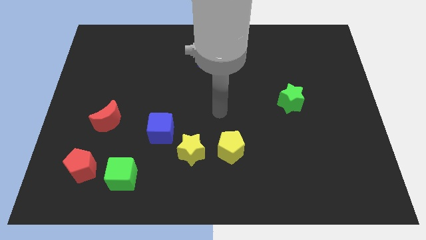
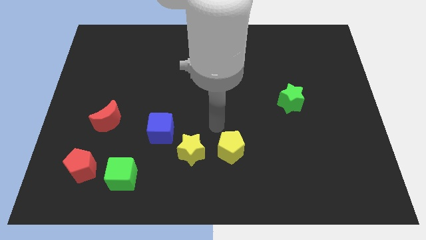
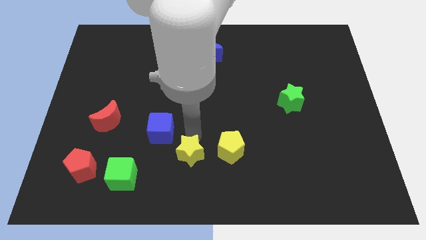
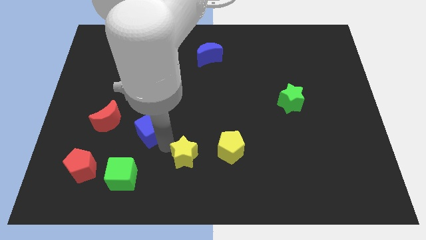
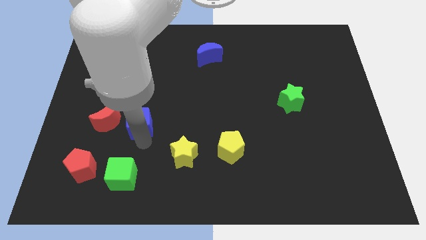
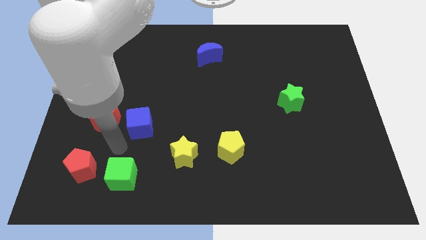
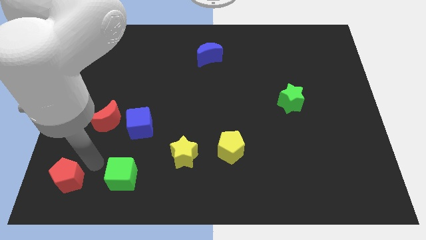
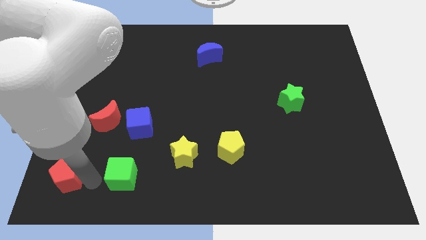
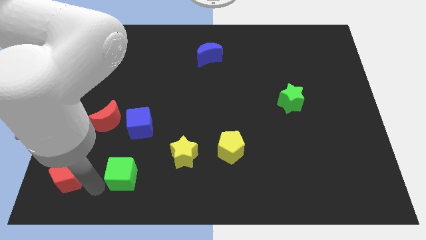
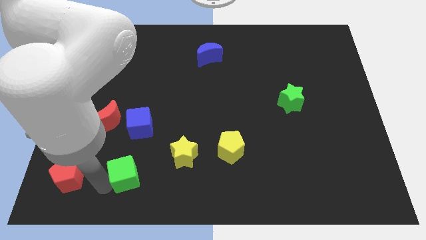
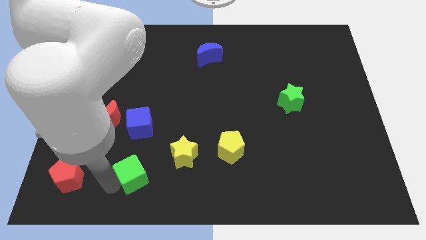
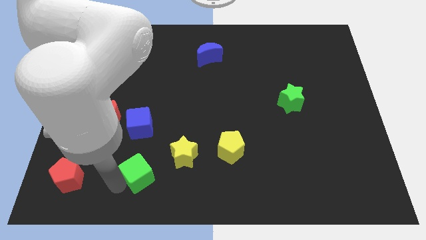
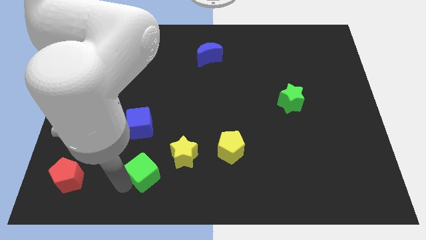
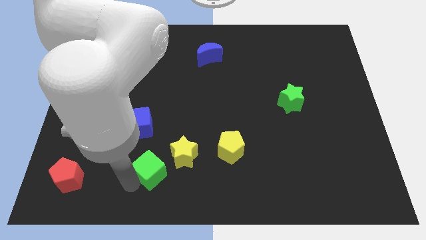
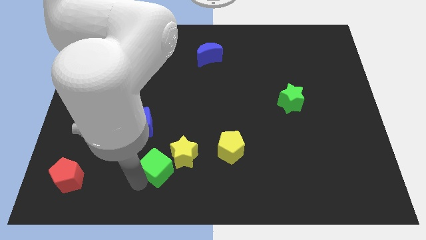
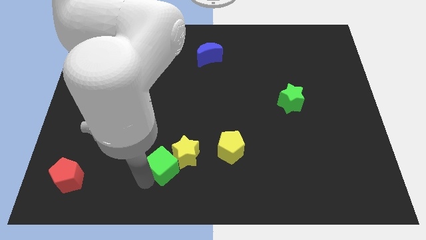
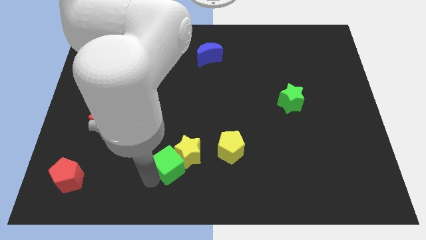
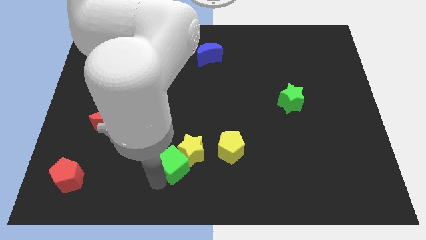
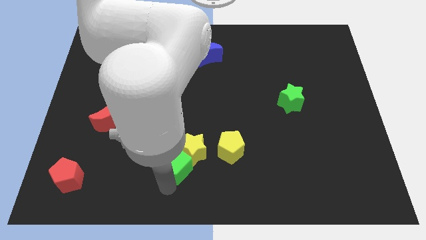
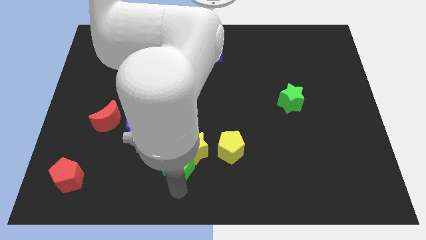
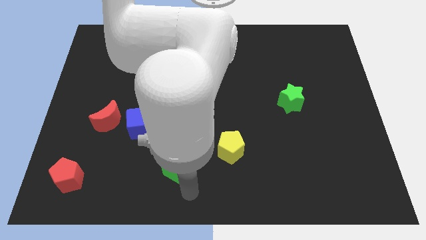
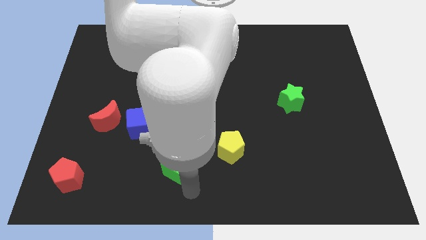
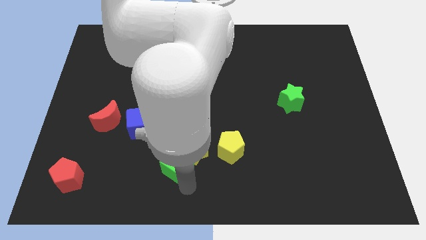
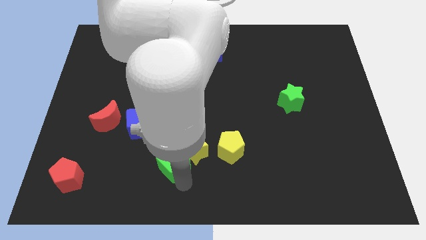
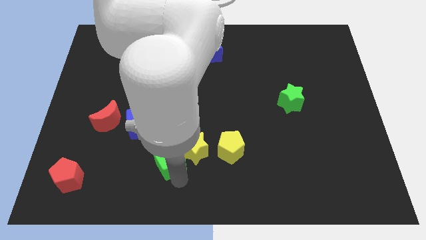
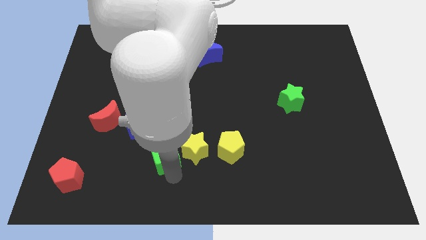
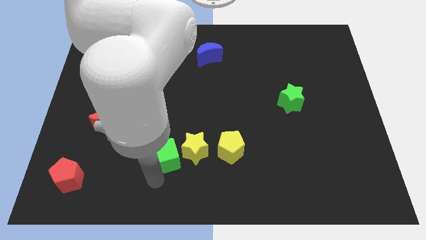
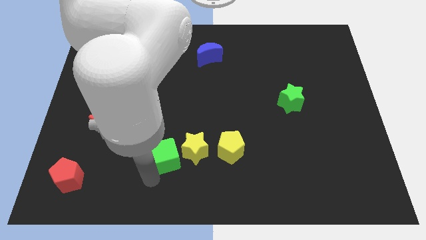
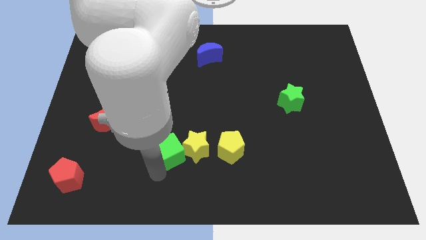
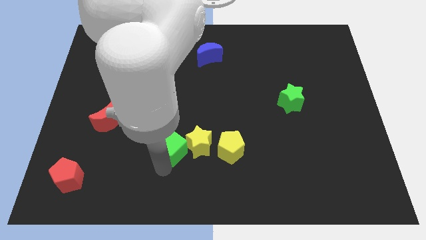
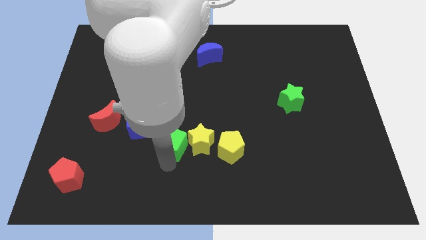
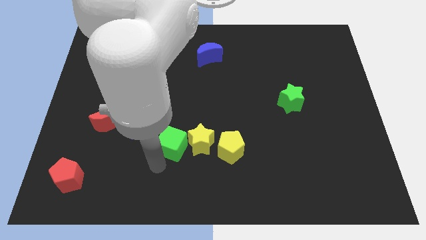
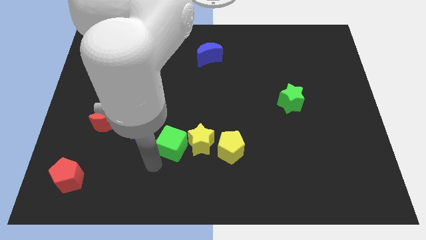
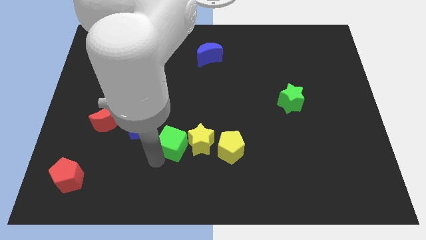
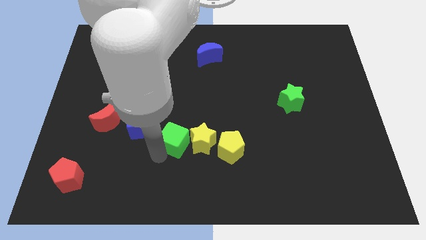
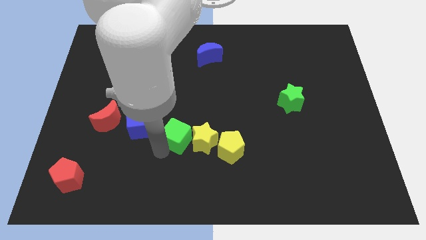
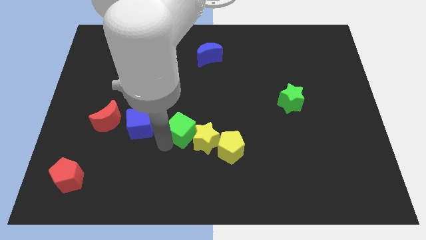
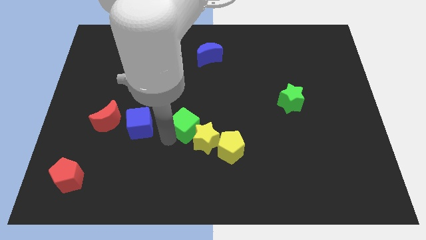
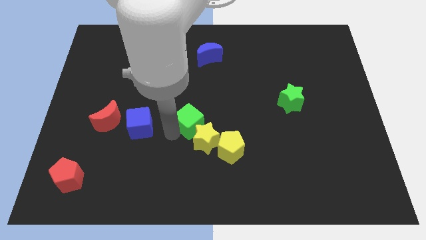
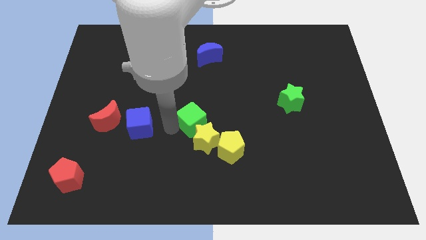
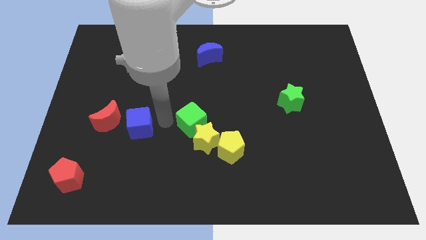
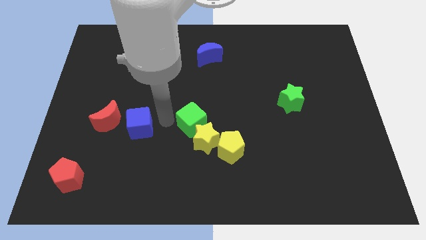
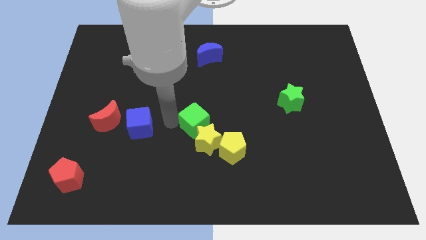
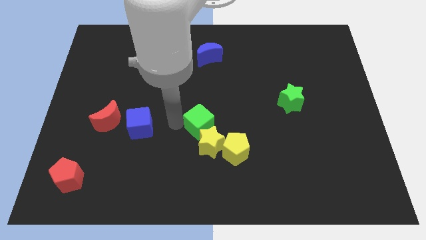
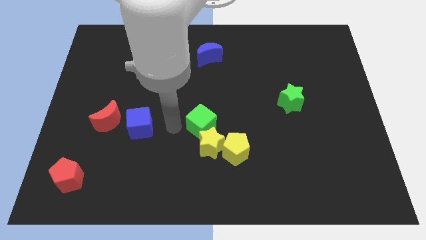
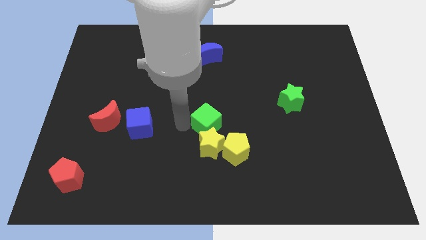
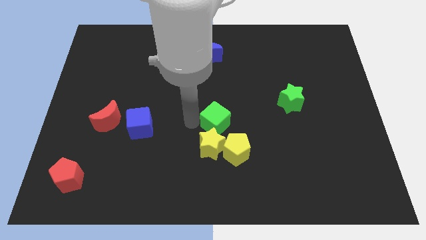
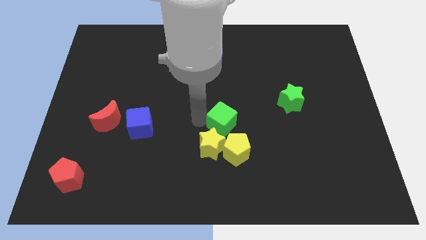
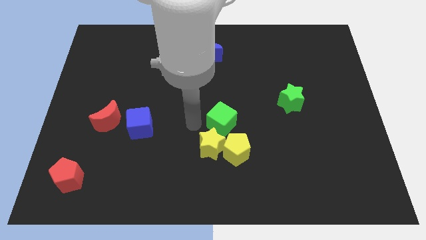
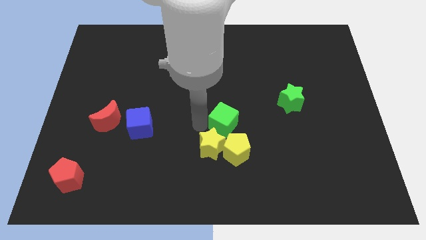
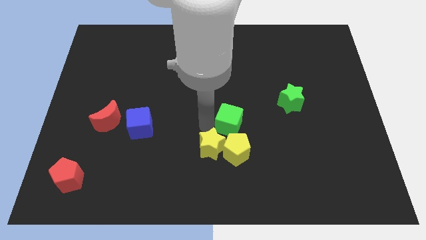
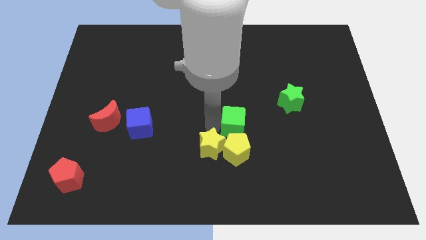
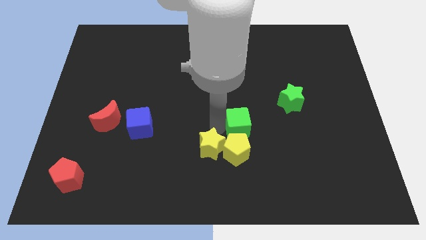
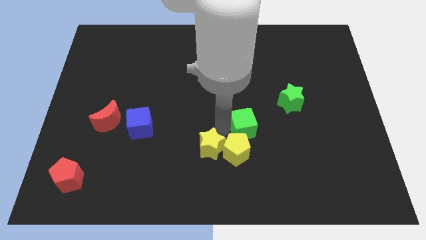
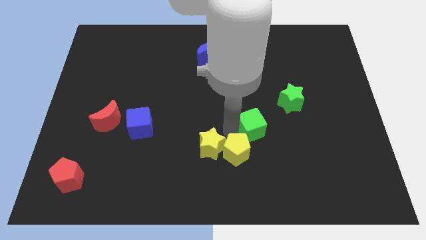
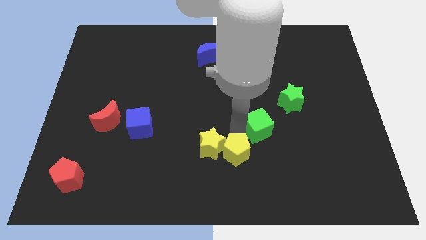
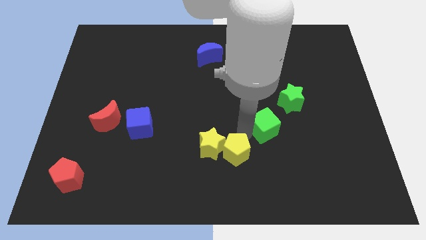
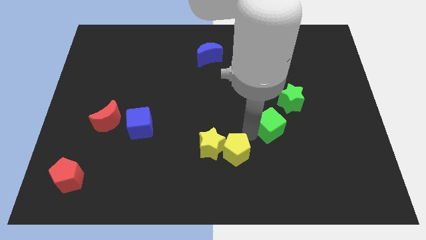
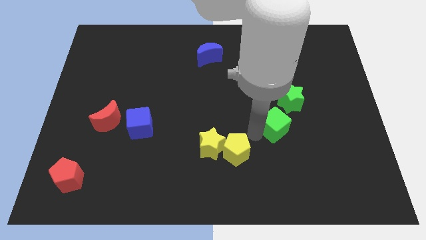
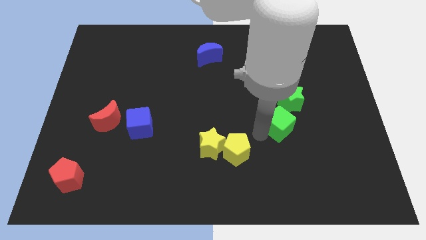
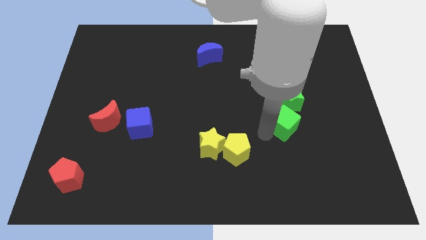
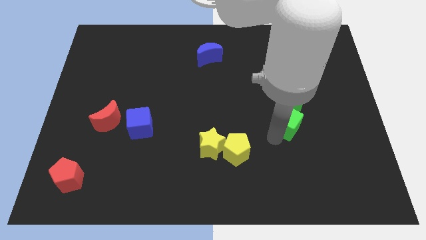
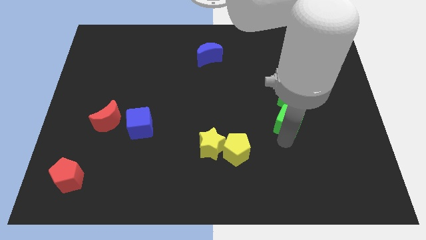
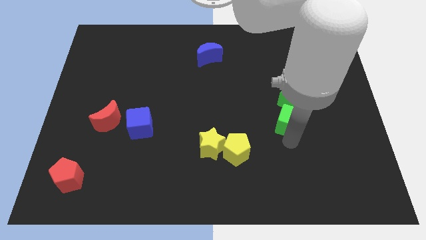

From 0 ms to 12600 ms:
put the green cube to the green star

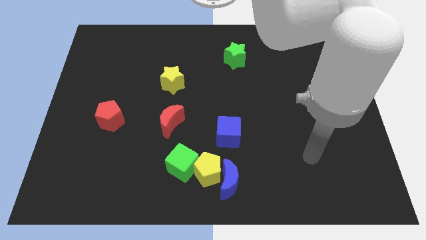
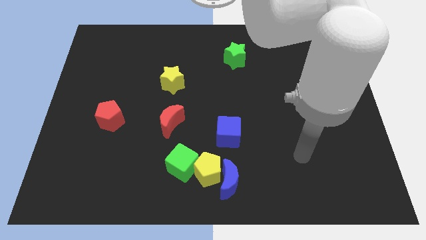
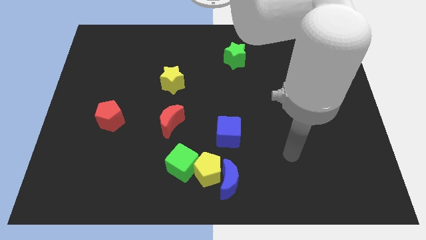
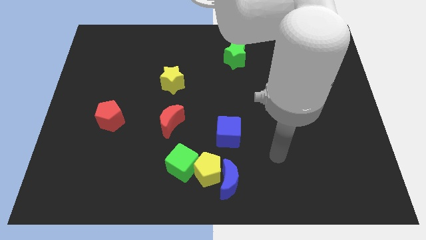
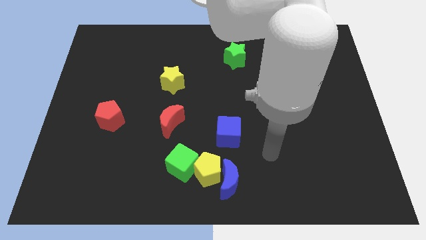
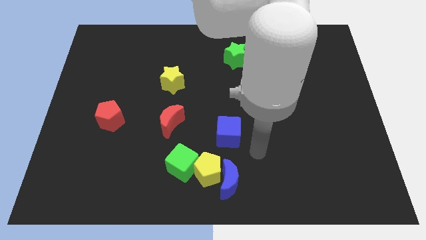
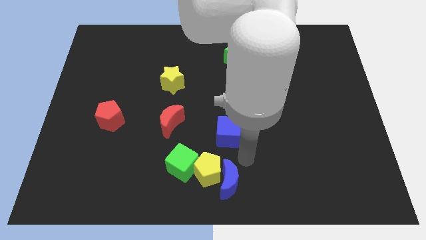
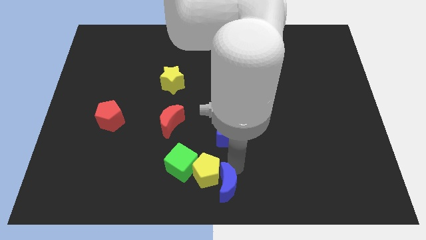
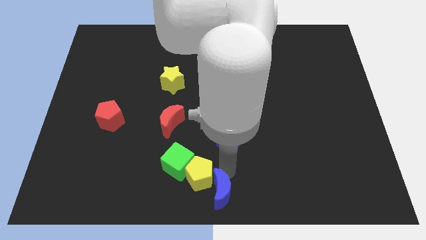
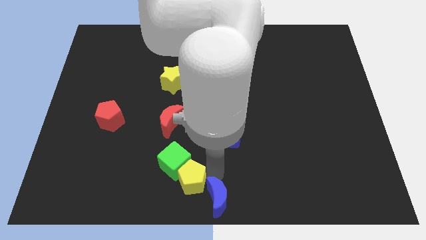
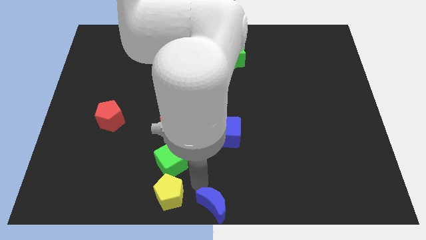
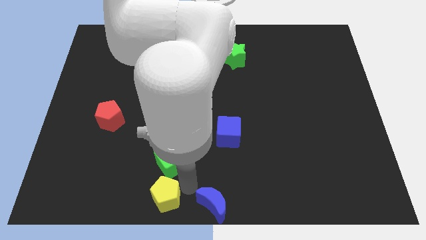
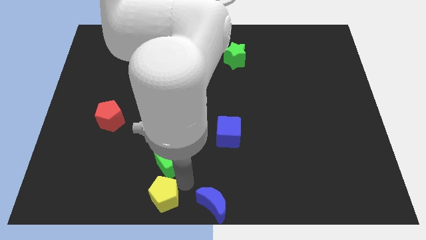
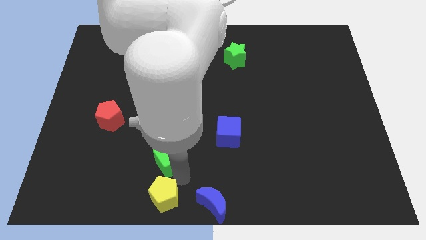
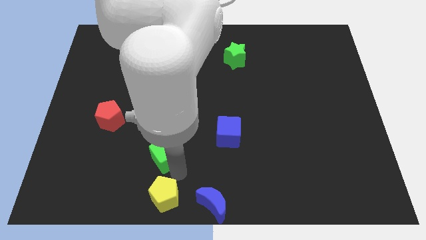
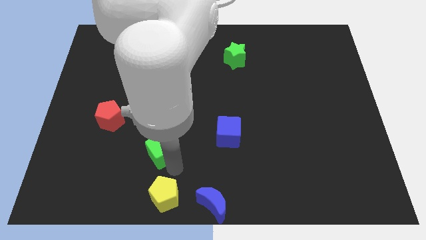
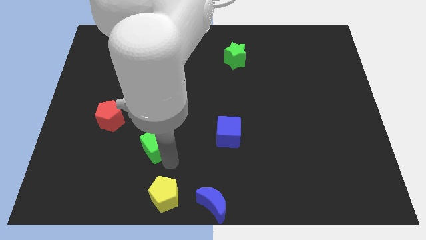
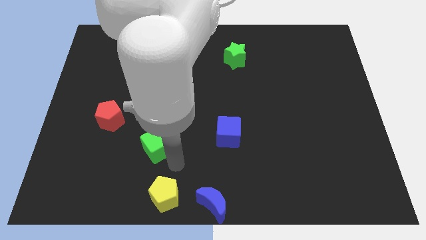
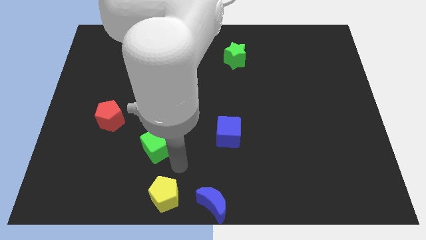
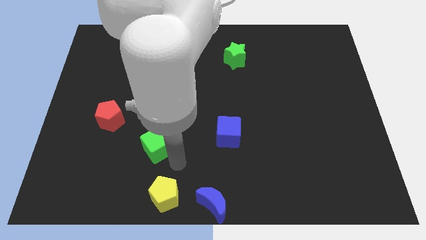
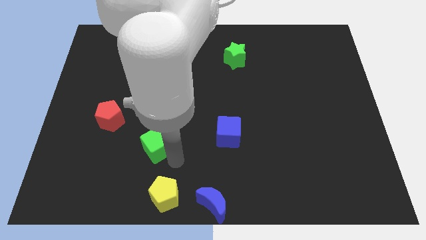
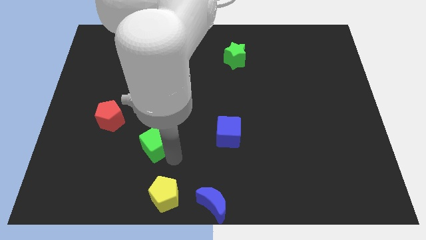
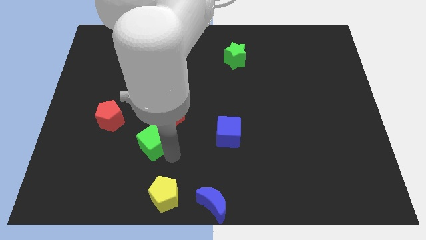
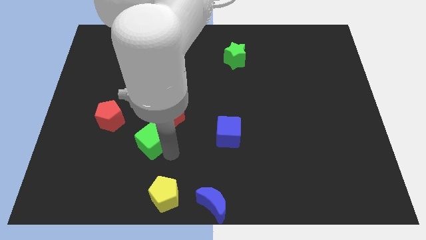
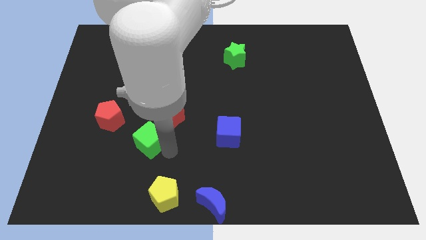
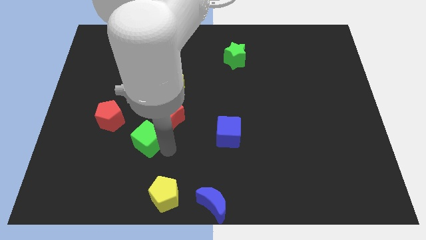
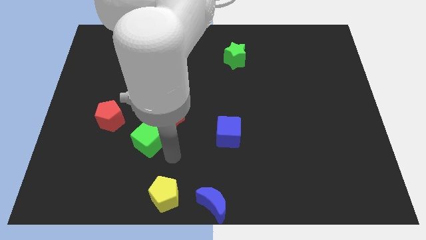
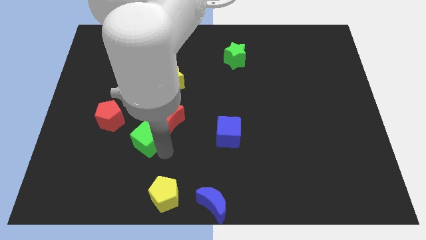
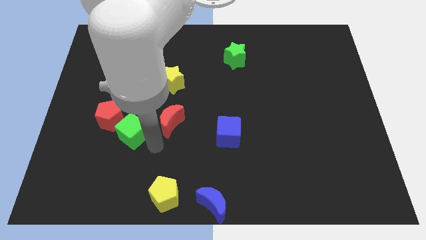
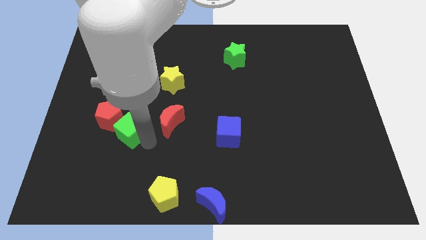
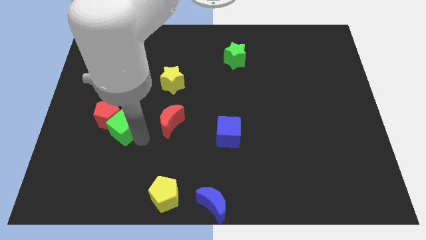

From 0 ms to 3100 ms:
put the green cube close to the red pentagon
